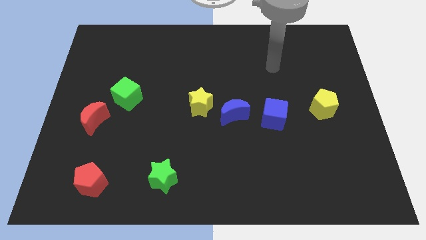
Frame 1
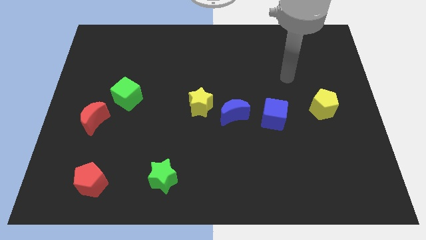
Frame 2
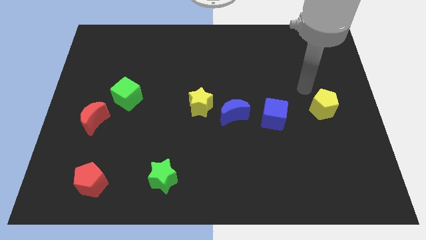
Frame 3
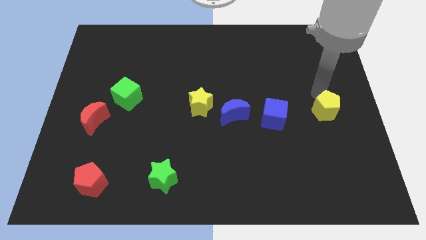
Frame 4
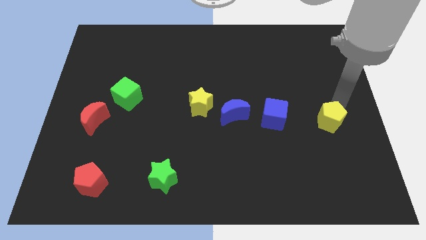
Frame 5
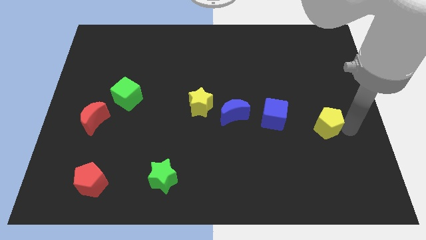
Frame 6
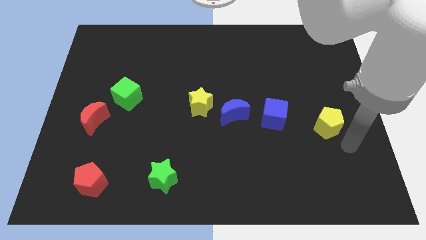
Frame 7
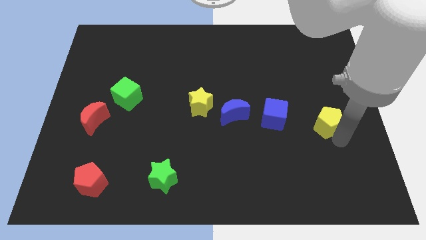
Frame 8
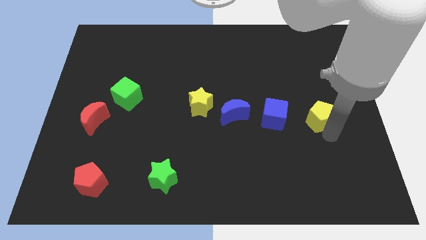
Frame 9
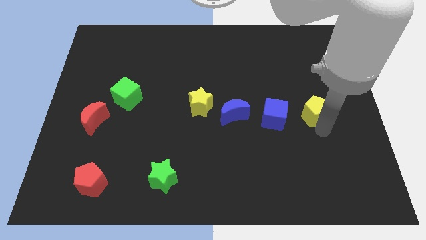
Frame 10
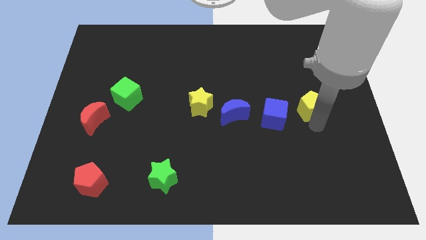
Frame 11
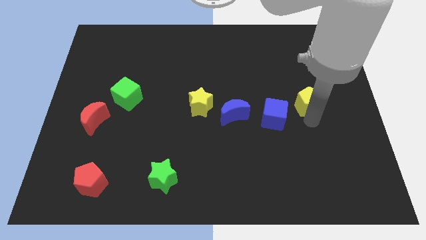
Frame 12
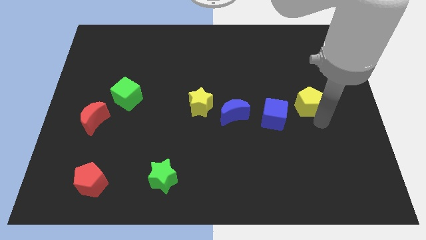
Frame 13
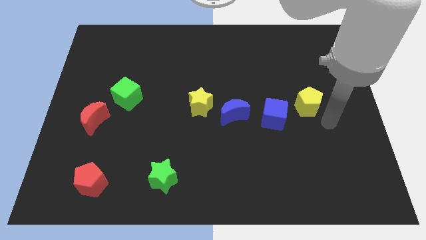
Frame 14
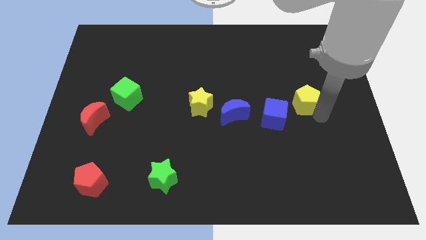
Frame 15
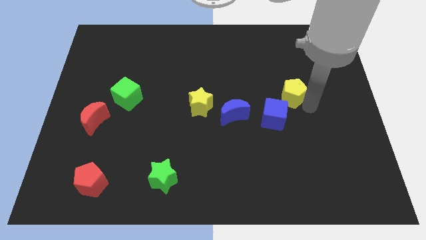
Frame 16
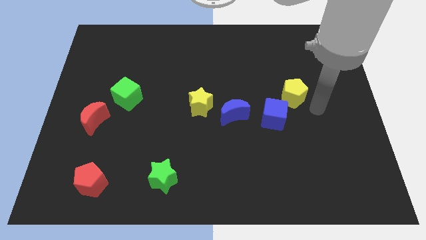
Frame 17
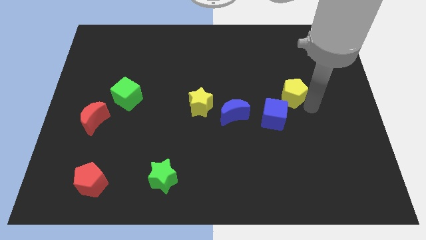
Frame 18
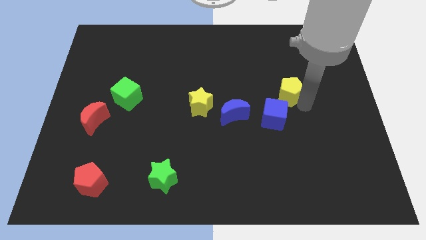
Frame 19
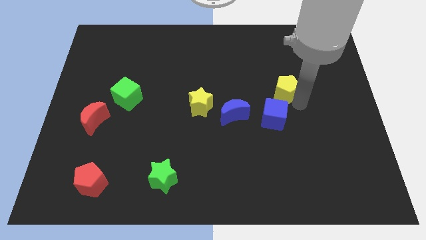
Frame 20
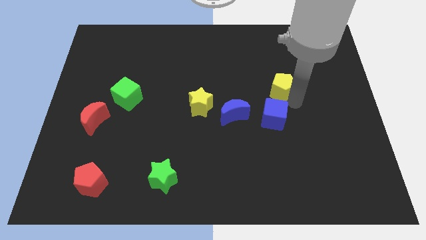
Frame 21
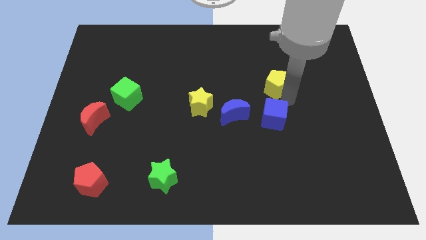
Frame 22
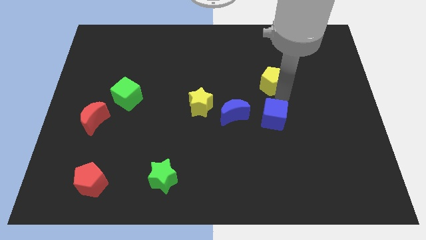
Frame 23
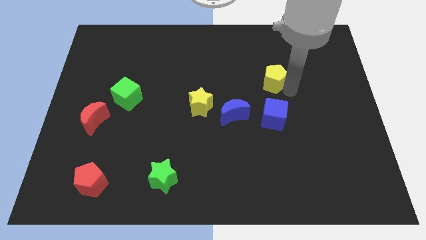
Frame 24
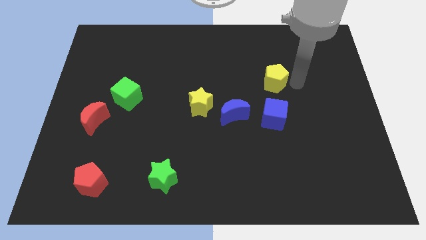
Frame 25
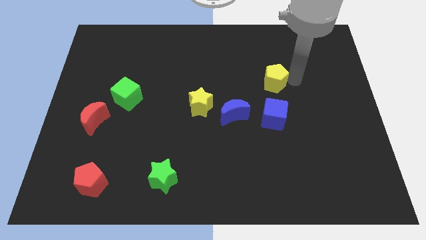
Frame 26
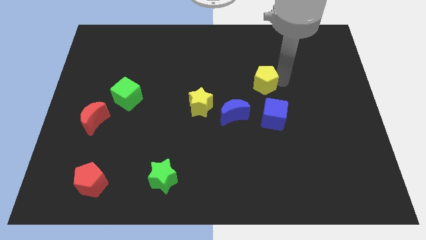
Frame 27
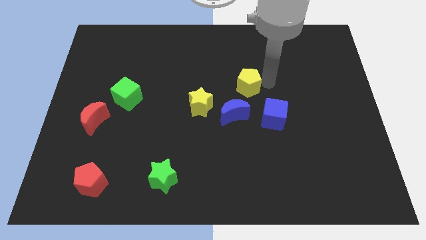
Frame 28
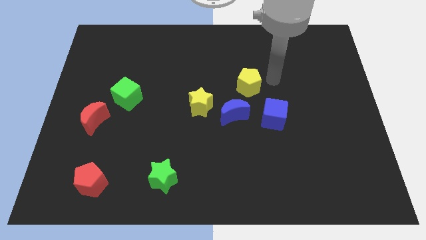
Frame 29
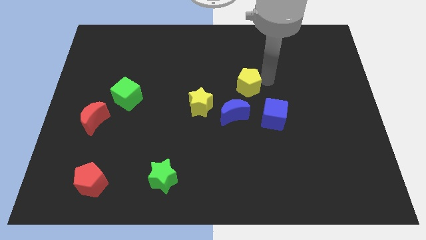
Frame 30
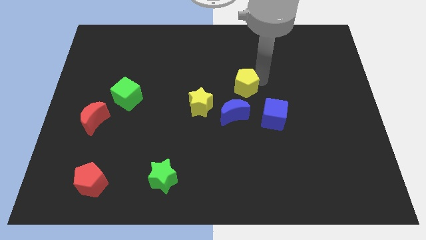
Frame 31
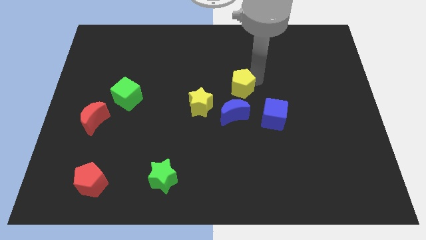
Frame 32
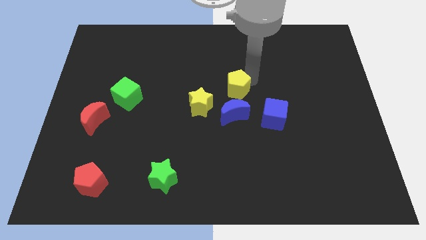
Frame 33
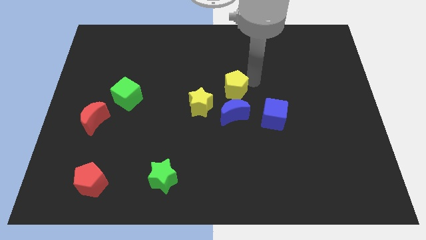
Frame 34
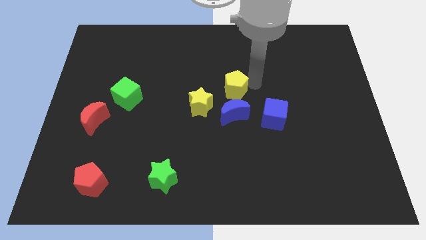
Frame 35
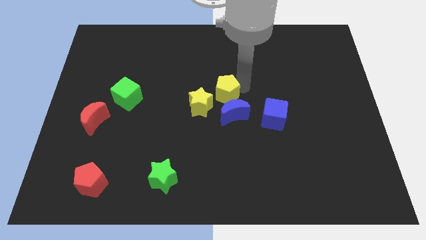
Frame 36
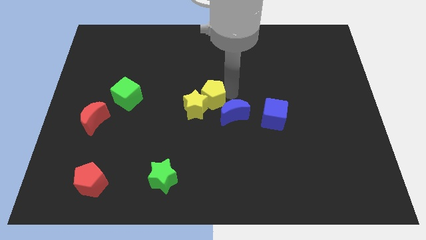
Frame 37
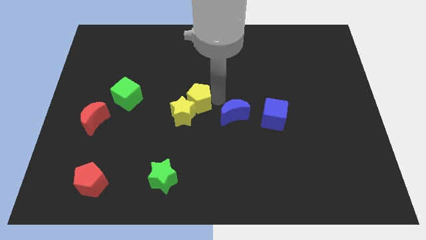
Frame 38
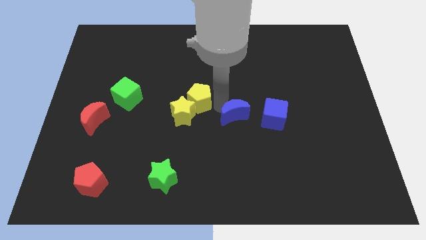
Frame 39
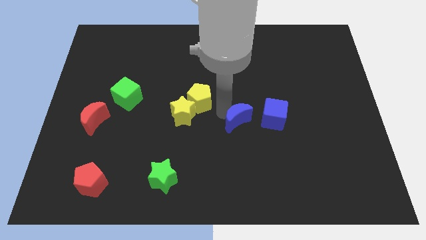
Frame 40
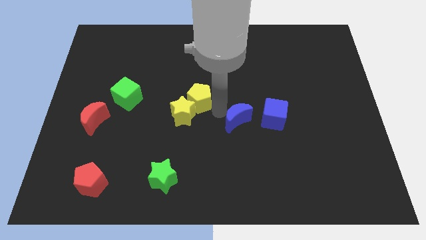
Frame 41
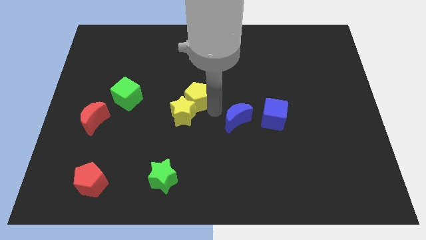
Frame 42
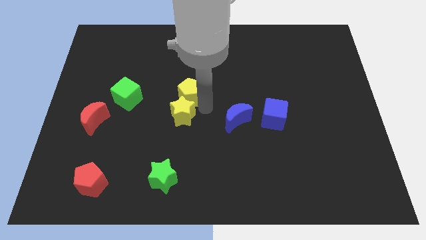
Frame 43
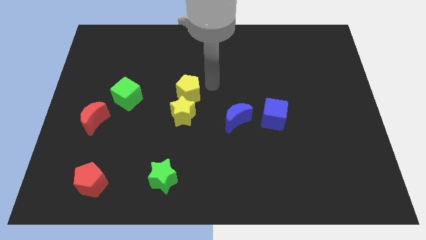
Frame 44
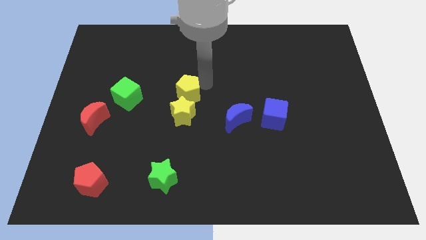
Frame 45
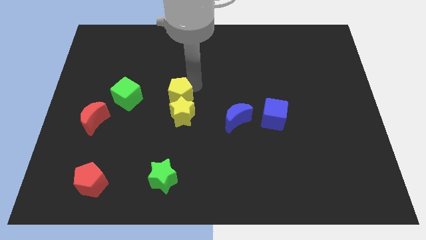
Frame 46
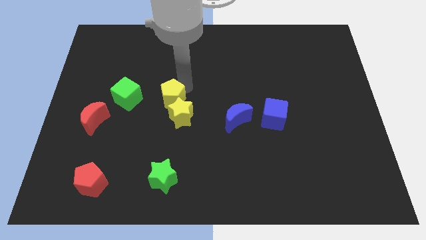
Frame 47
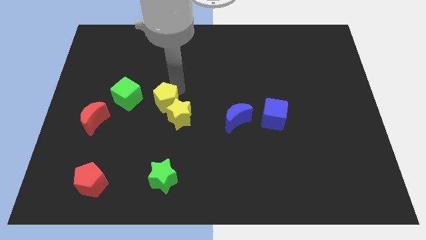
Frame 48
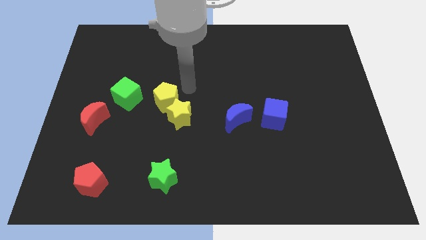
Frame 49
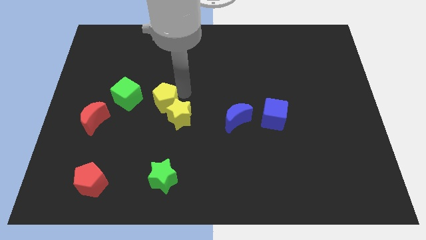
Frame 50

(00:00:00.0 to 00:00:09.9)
put the yellow pentagon just left of the yellow star

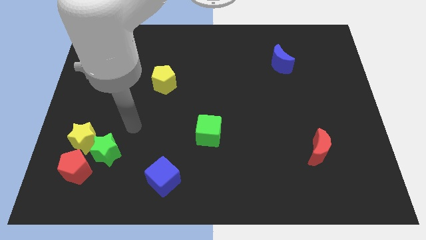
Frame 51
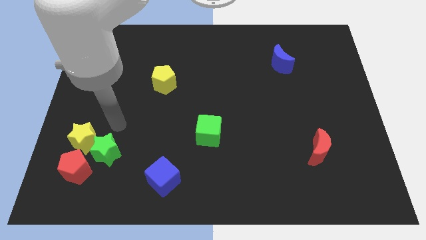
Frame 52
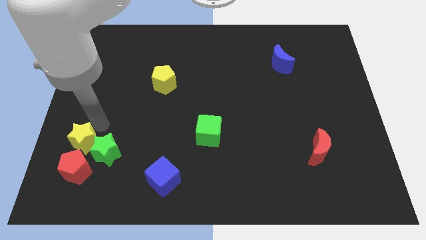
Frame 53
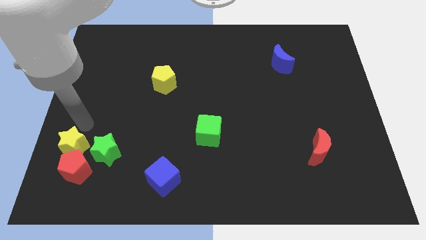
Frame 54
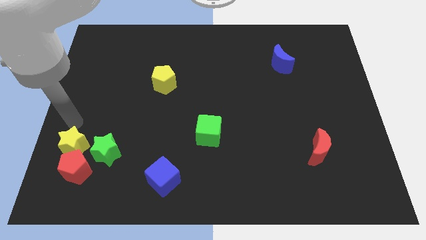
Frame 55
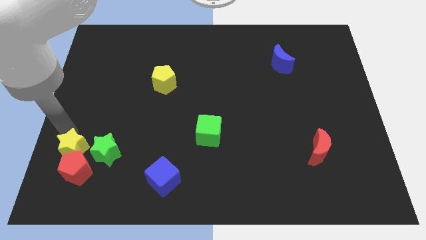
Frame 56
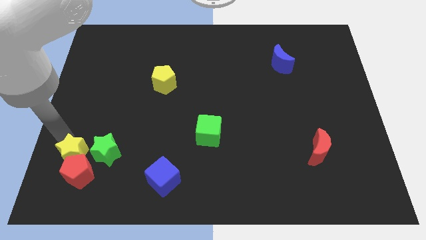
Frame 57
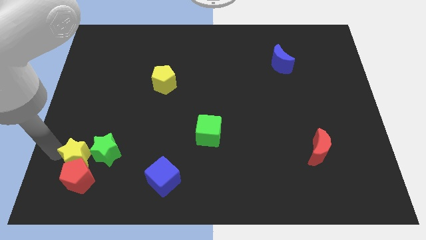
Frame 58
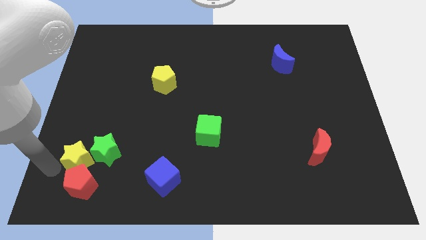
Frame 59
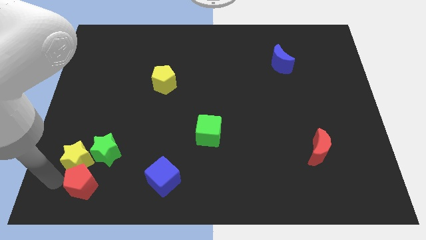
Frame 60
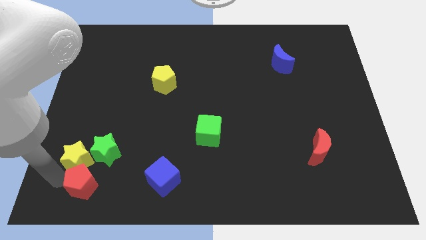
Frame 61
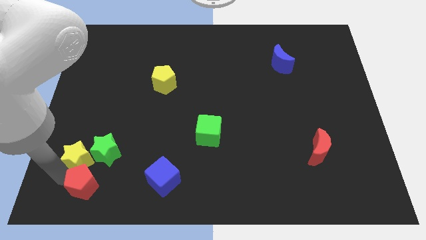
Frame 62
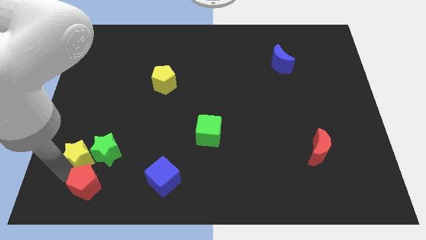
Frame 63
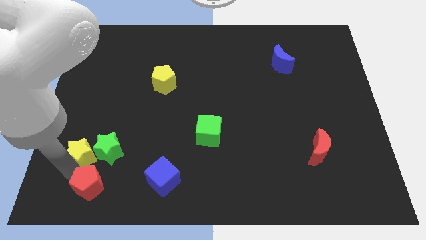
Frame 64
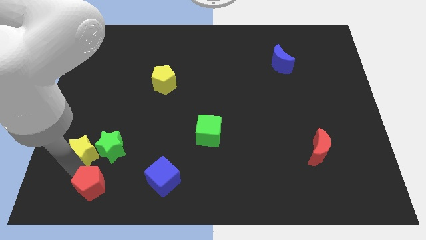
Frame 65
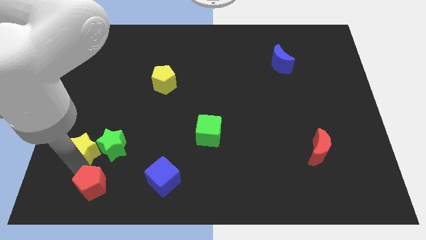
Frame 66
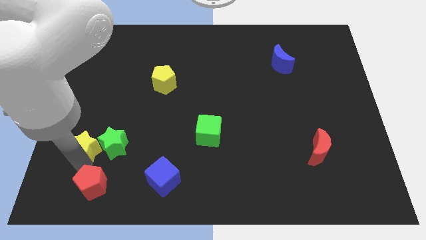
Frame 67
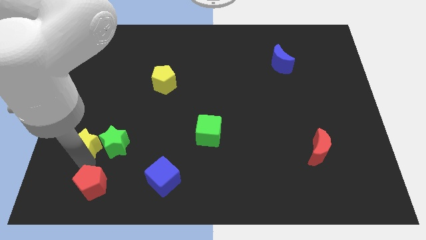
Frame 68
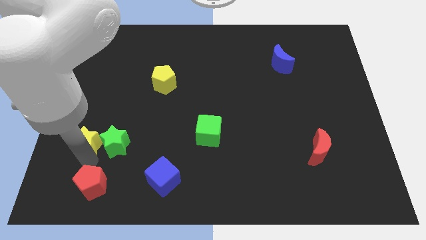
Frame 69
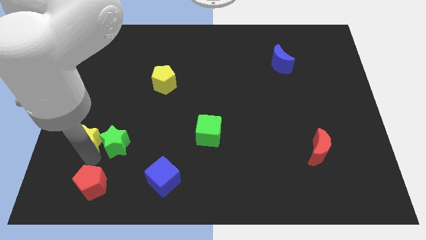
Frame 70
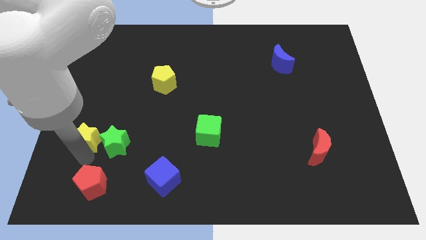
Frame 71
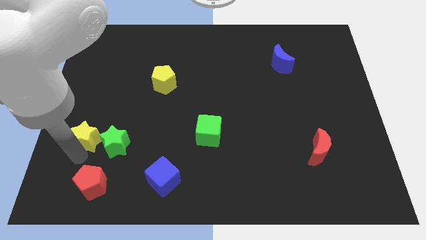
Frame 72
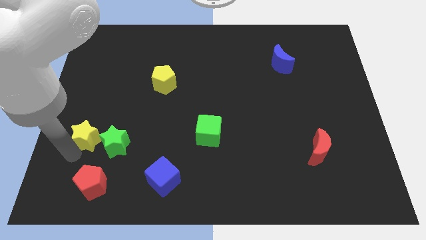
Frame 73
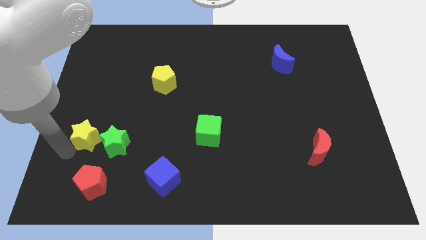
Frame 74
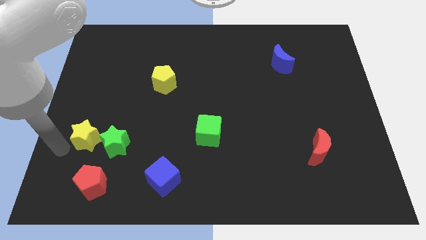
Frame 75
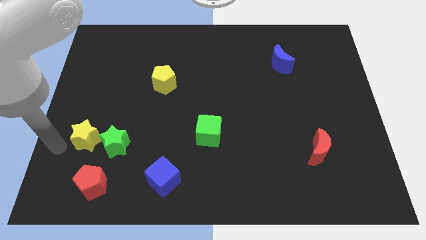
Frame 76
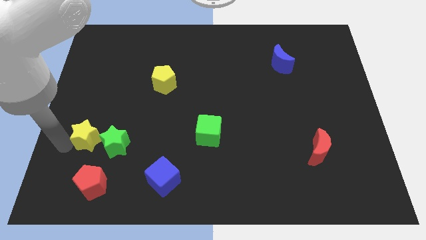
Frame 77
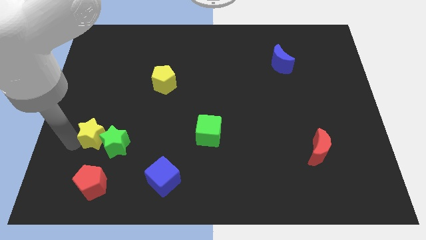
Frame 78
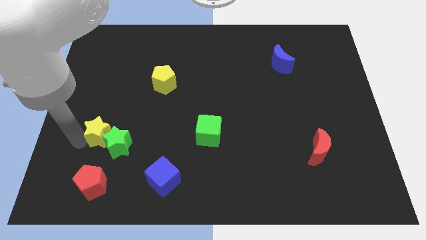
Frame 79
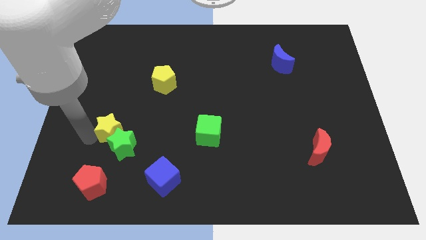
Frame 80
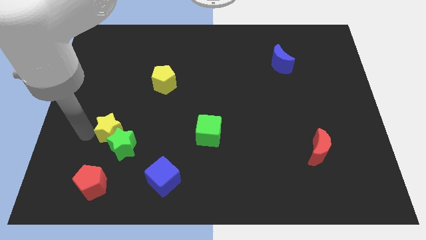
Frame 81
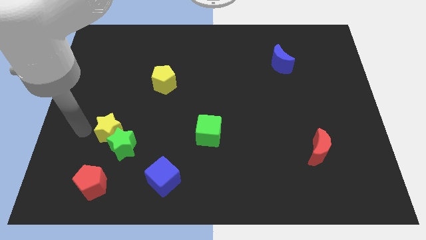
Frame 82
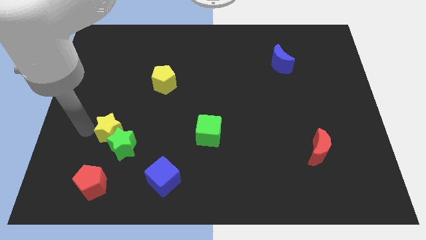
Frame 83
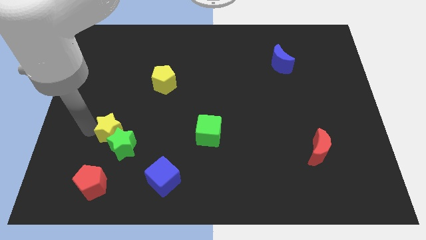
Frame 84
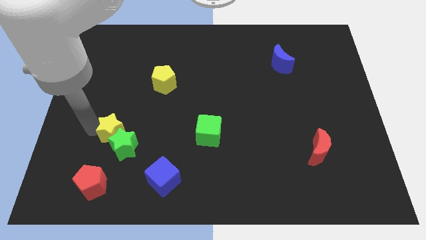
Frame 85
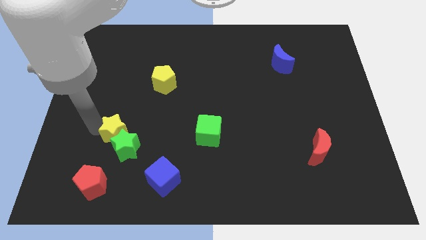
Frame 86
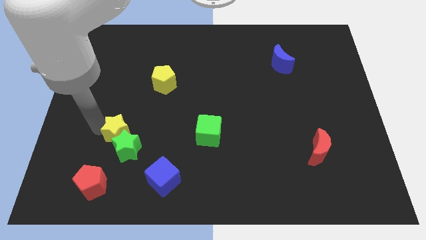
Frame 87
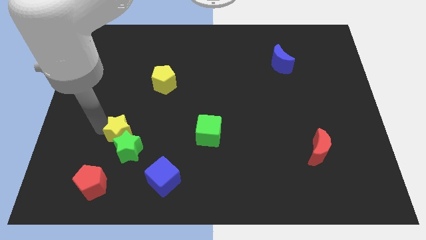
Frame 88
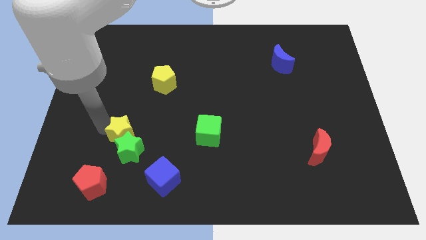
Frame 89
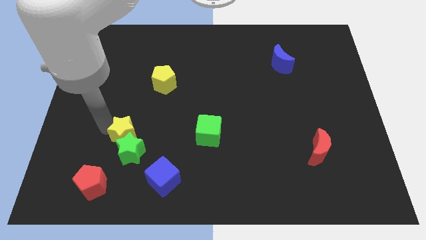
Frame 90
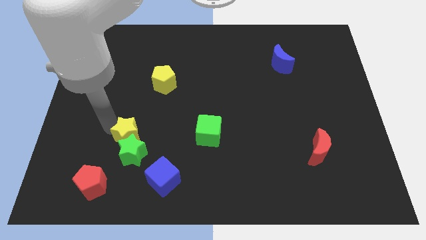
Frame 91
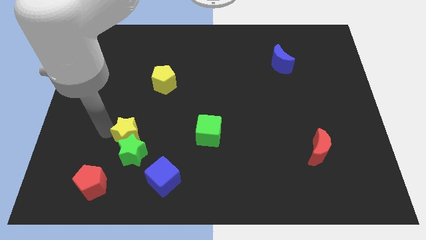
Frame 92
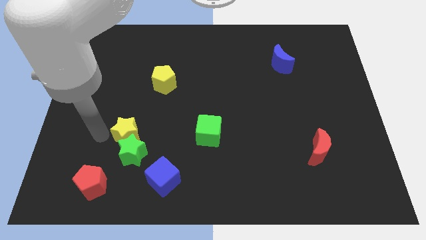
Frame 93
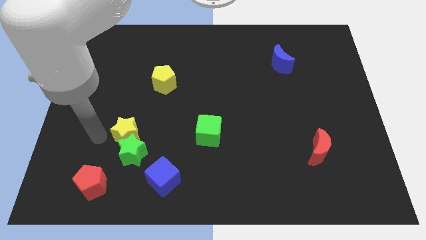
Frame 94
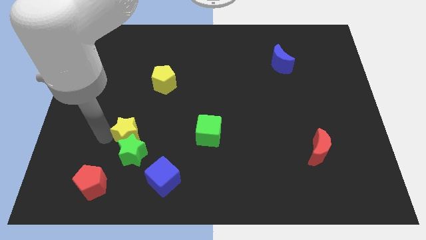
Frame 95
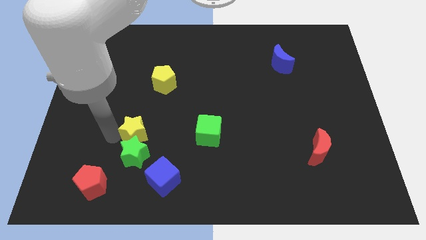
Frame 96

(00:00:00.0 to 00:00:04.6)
put the yellow star to the left side of the green cube
